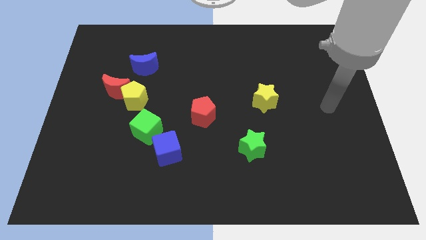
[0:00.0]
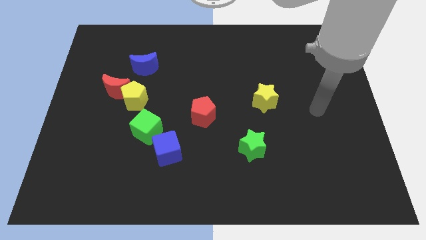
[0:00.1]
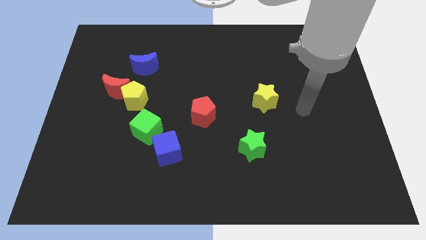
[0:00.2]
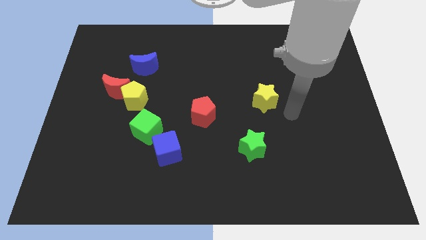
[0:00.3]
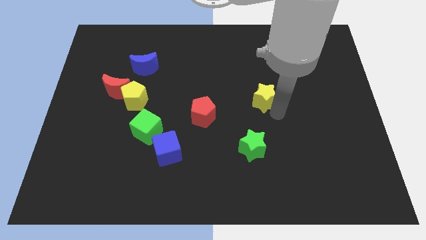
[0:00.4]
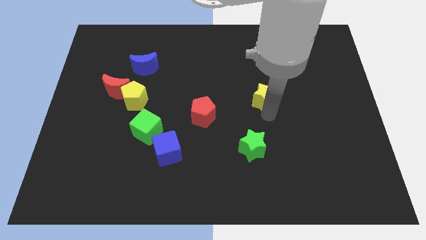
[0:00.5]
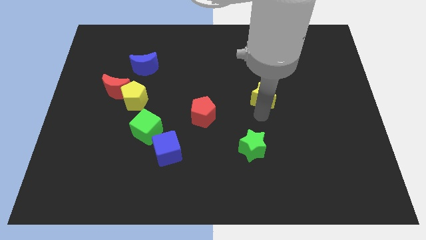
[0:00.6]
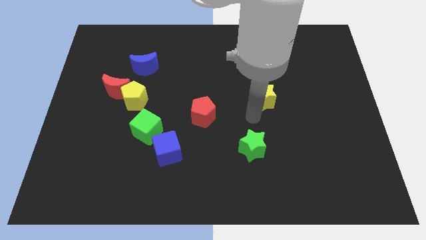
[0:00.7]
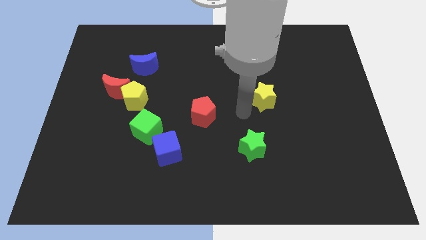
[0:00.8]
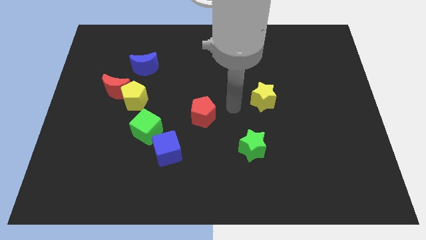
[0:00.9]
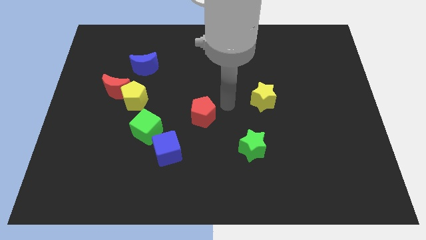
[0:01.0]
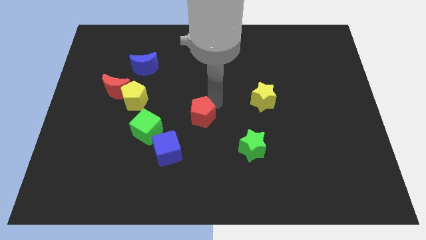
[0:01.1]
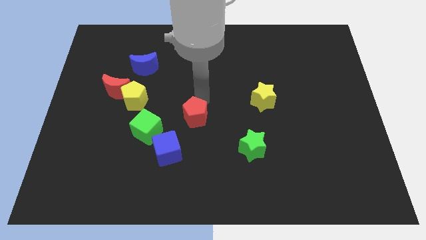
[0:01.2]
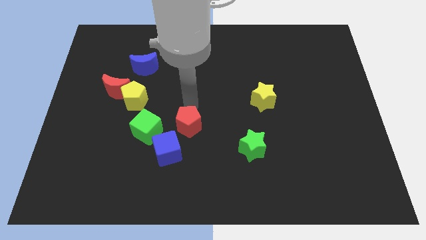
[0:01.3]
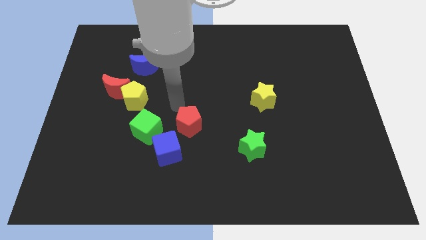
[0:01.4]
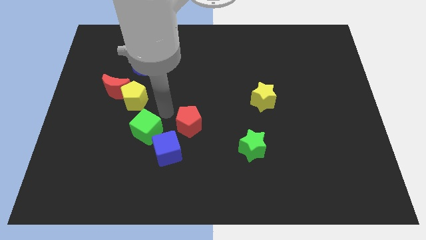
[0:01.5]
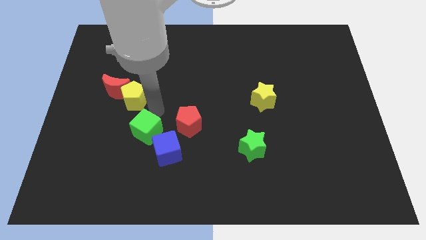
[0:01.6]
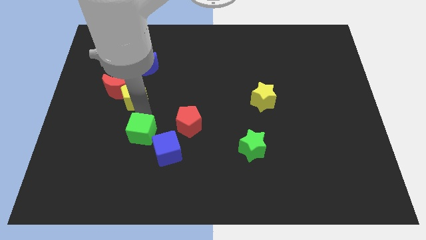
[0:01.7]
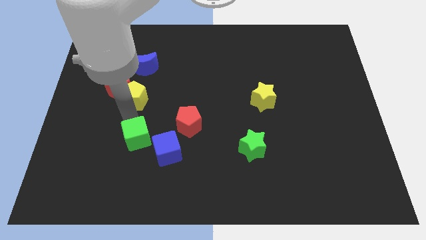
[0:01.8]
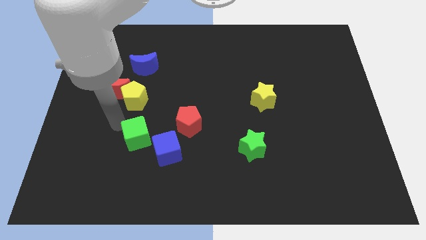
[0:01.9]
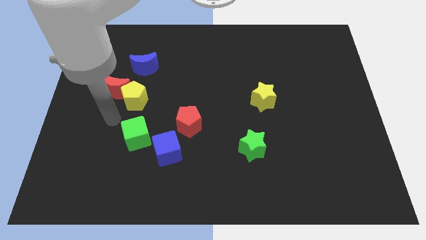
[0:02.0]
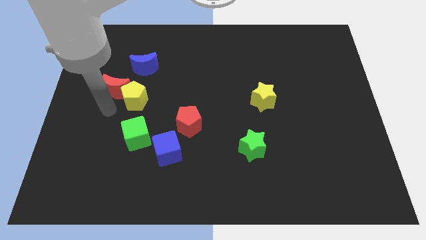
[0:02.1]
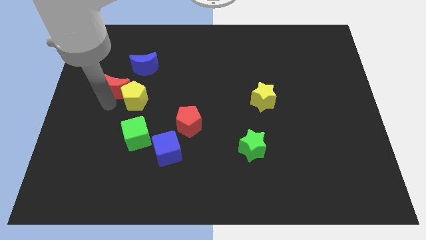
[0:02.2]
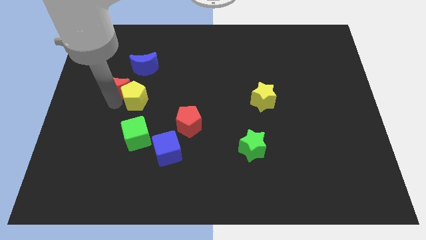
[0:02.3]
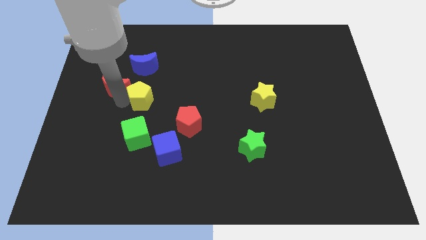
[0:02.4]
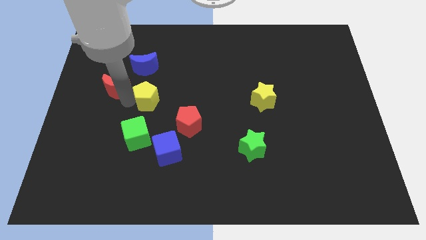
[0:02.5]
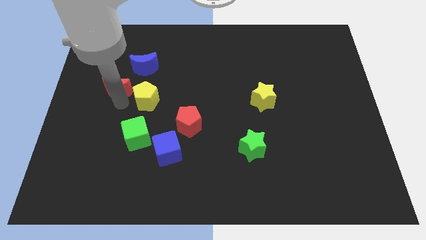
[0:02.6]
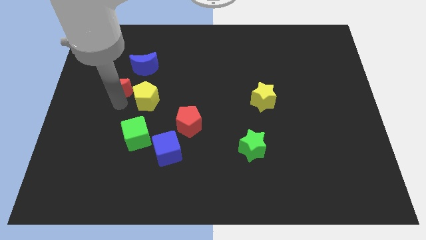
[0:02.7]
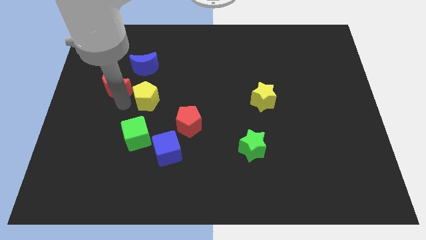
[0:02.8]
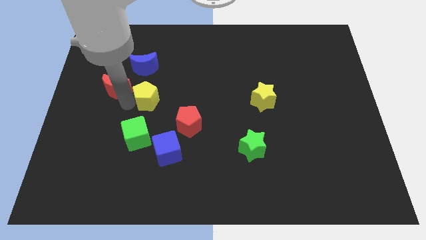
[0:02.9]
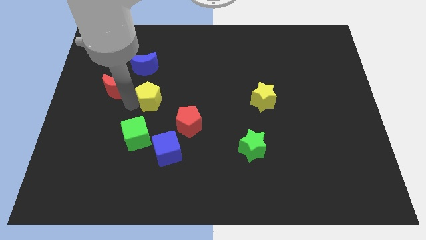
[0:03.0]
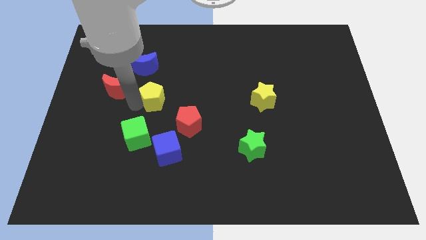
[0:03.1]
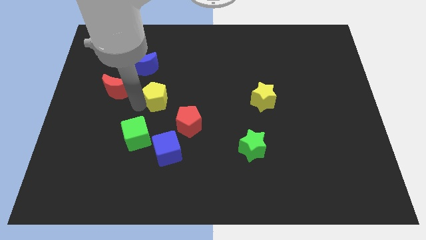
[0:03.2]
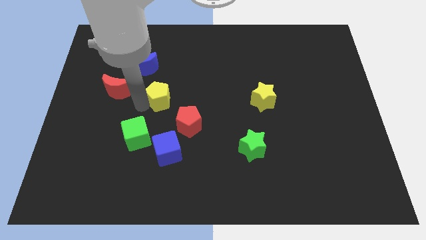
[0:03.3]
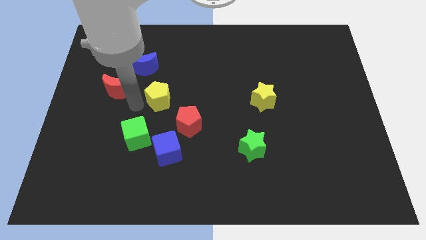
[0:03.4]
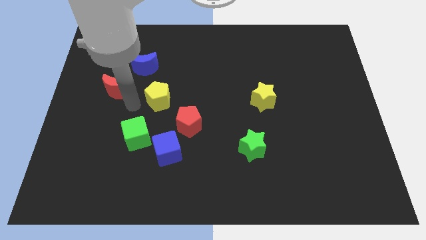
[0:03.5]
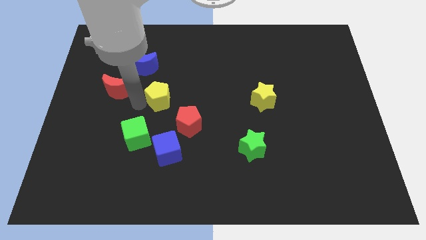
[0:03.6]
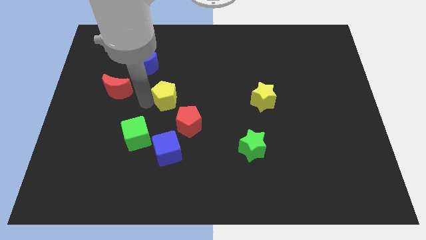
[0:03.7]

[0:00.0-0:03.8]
move the yellow pentagon somewhat right

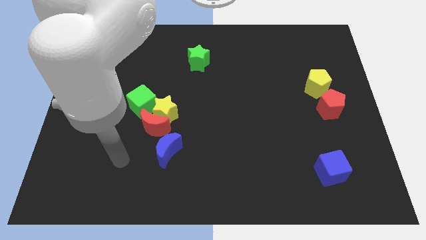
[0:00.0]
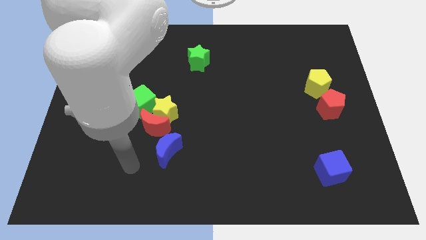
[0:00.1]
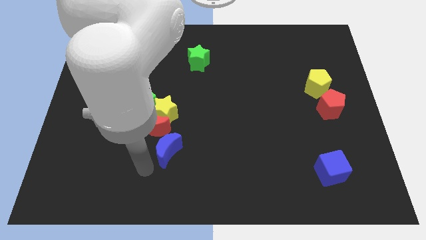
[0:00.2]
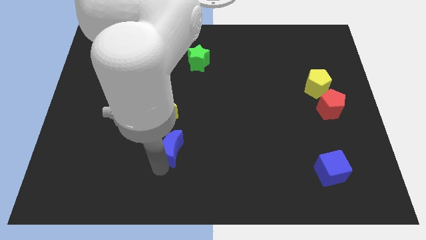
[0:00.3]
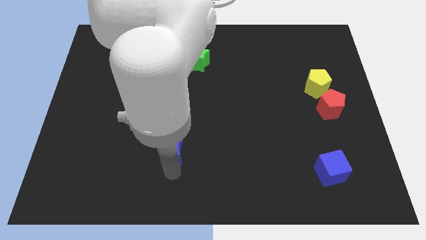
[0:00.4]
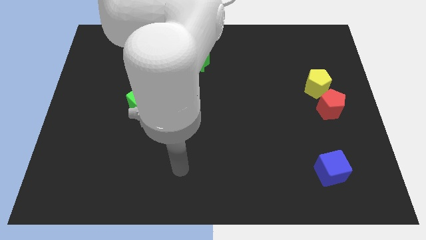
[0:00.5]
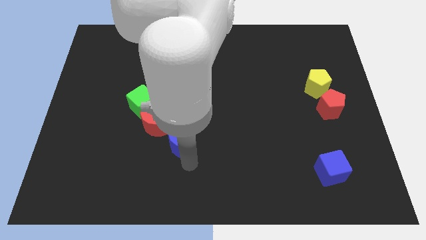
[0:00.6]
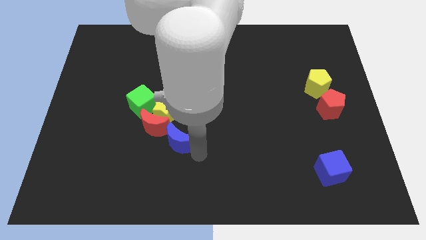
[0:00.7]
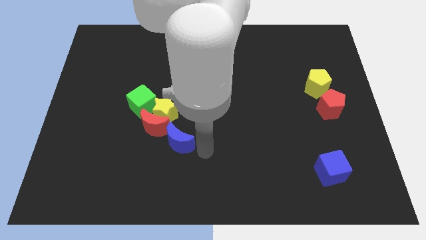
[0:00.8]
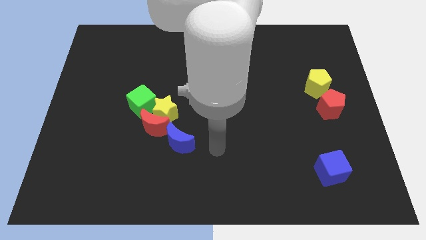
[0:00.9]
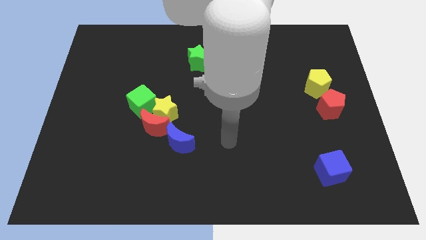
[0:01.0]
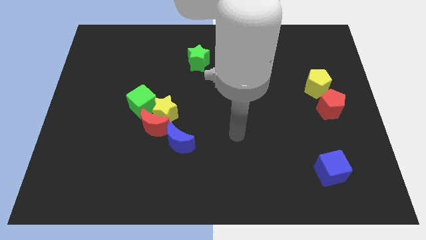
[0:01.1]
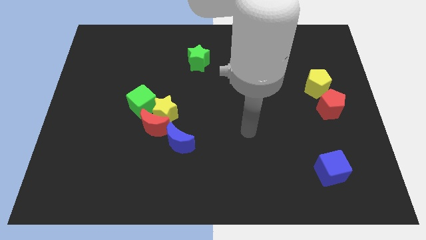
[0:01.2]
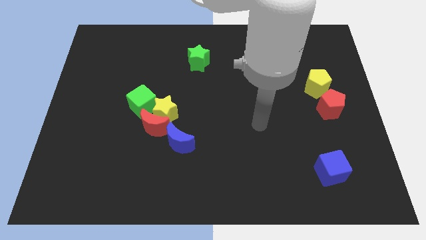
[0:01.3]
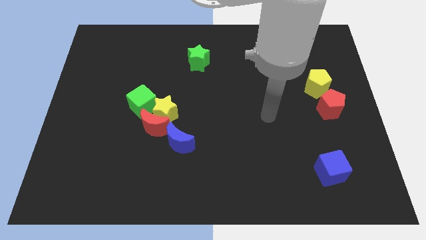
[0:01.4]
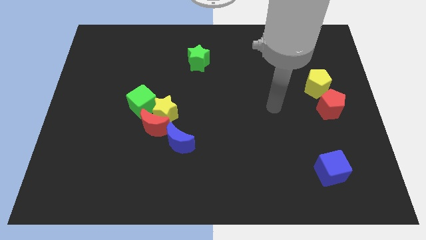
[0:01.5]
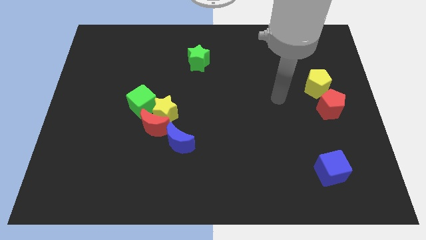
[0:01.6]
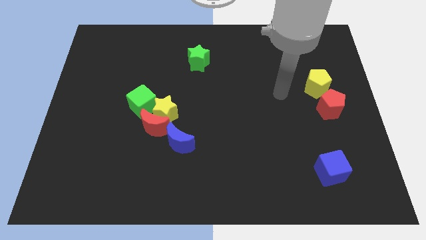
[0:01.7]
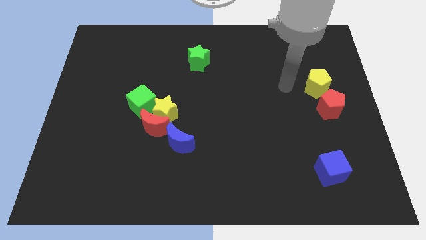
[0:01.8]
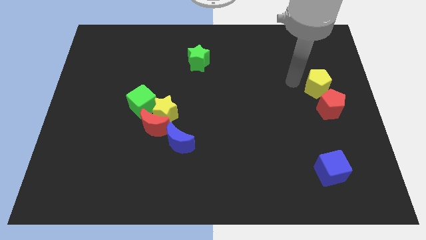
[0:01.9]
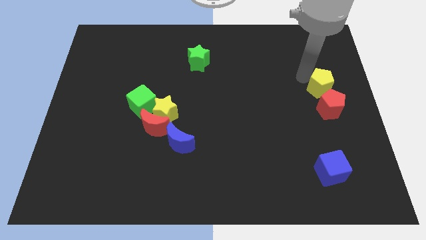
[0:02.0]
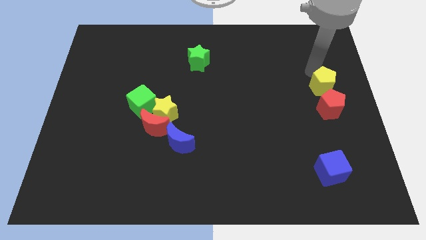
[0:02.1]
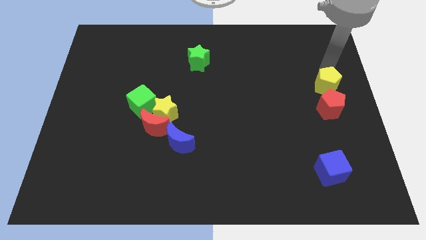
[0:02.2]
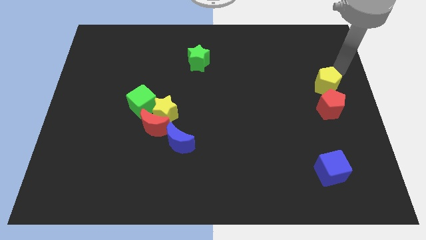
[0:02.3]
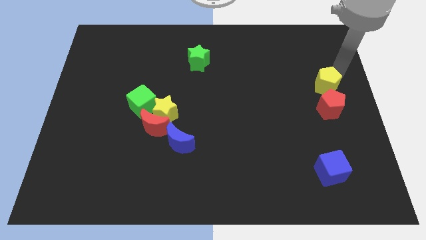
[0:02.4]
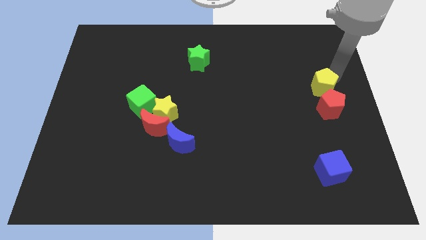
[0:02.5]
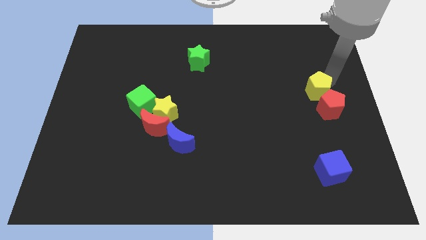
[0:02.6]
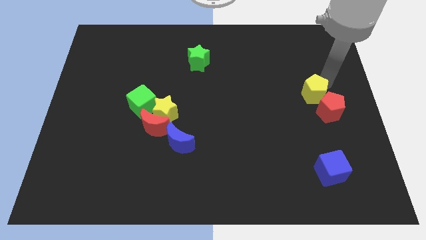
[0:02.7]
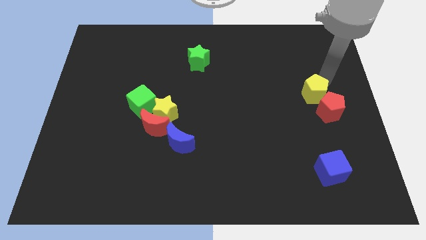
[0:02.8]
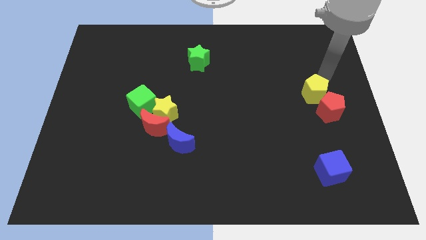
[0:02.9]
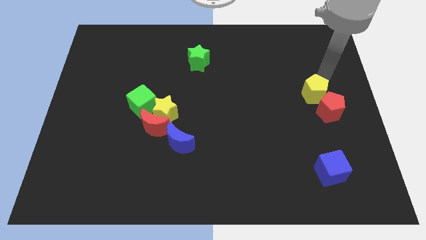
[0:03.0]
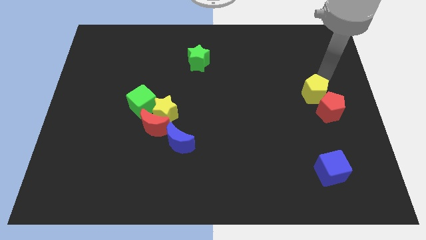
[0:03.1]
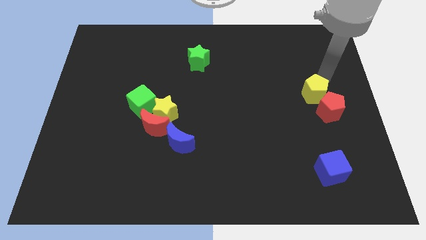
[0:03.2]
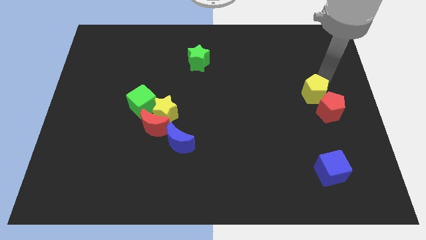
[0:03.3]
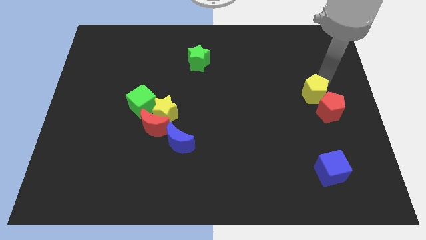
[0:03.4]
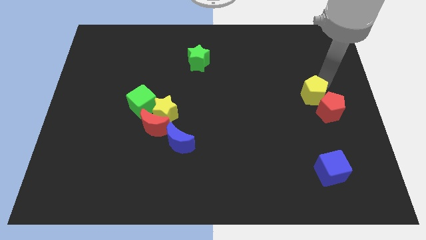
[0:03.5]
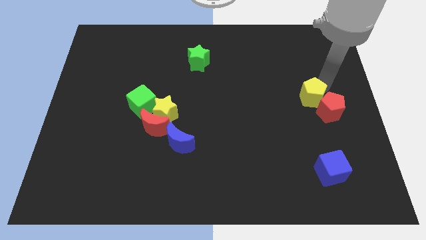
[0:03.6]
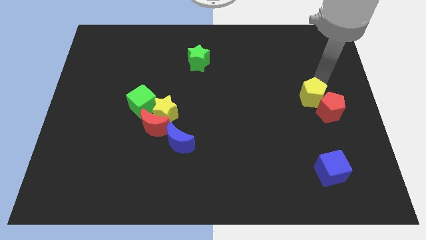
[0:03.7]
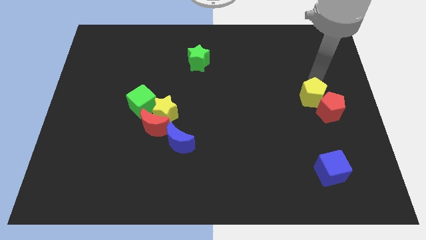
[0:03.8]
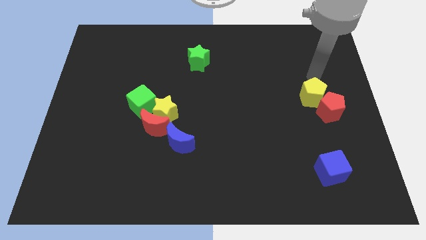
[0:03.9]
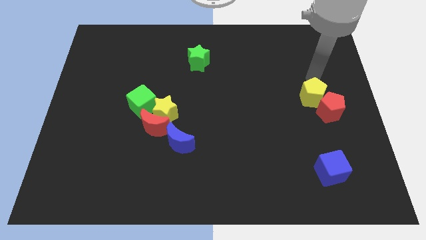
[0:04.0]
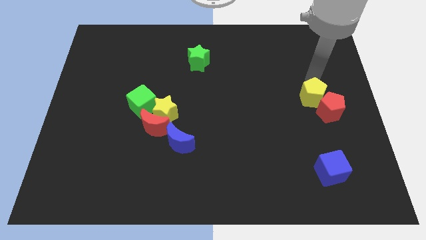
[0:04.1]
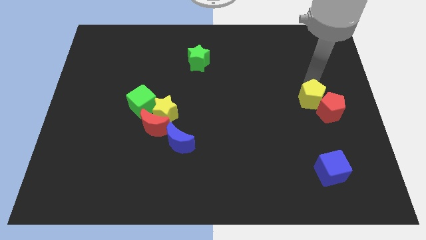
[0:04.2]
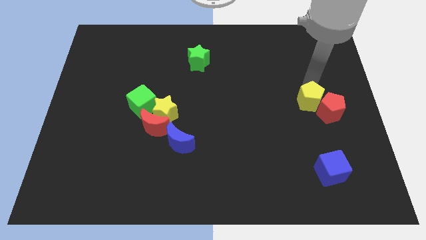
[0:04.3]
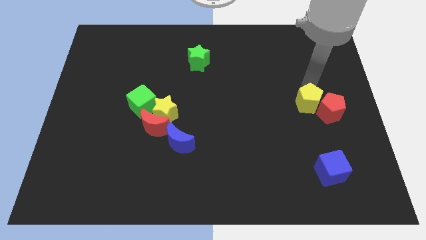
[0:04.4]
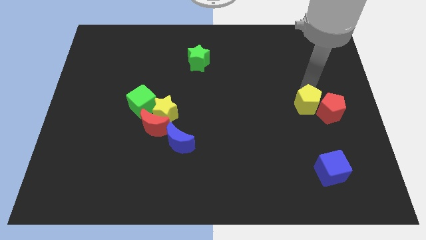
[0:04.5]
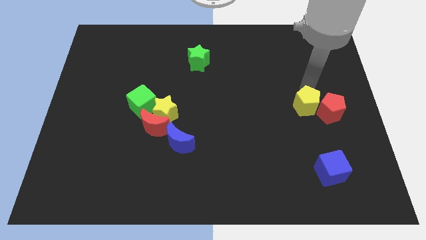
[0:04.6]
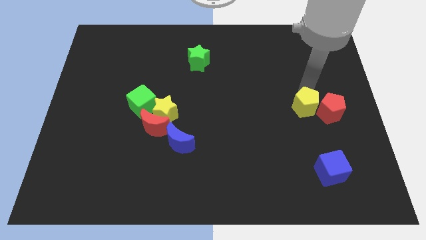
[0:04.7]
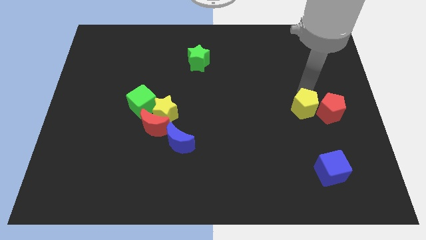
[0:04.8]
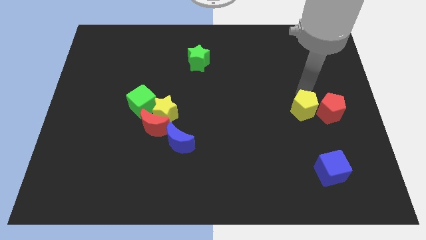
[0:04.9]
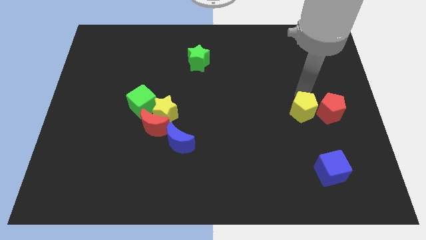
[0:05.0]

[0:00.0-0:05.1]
slightly push the yellow pentagon down
